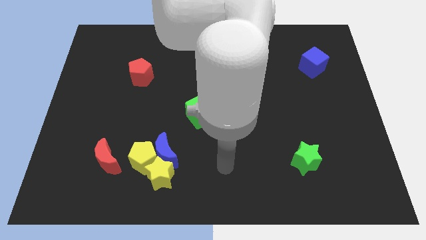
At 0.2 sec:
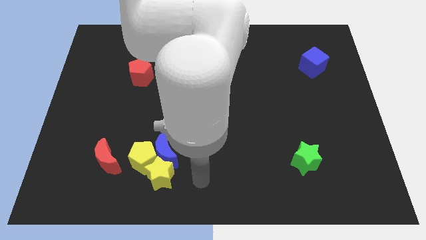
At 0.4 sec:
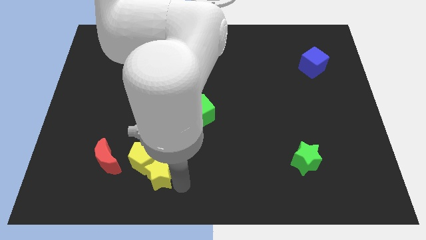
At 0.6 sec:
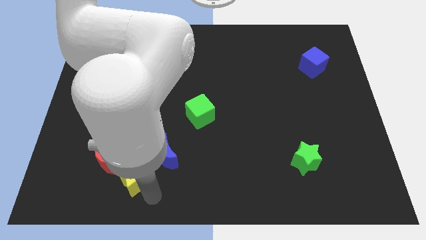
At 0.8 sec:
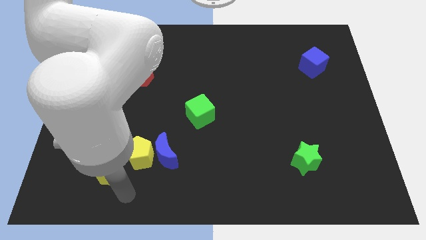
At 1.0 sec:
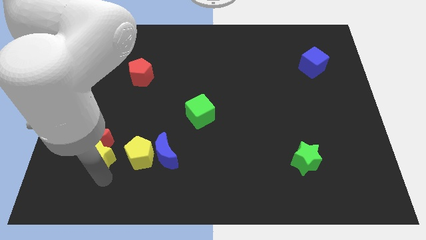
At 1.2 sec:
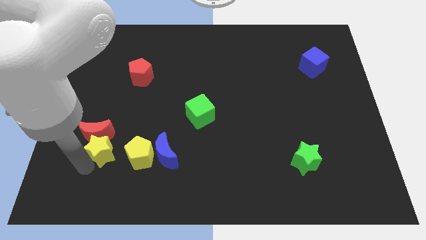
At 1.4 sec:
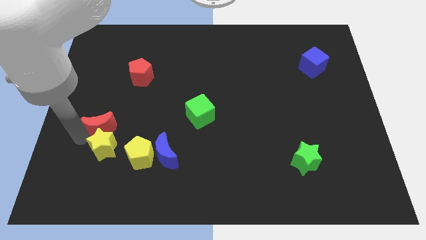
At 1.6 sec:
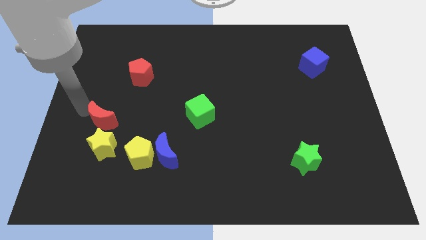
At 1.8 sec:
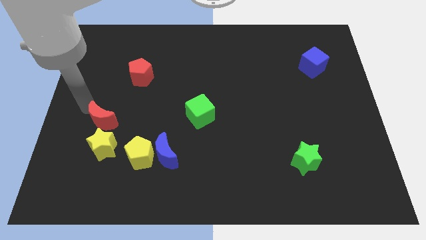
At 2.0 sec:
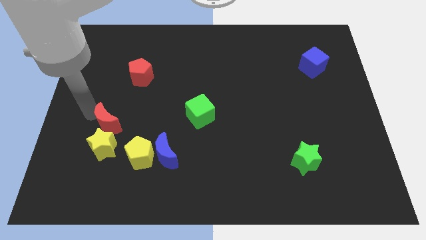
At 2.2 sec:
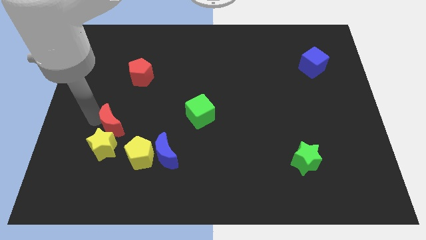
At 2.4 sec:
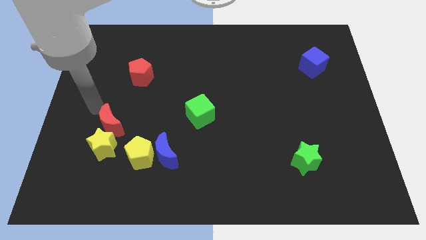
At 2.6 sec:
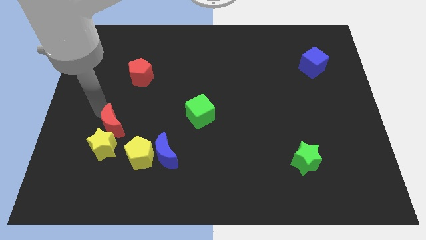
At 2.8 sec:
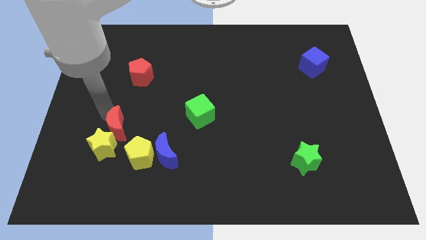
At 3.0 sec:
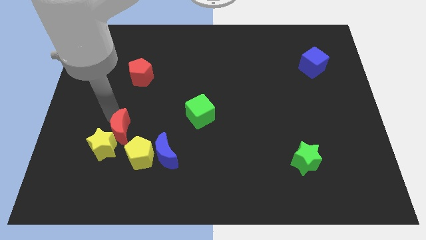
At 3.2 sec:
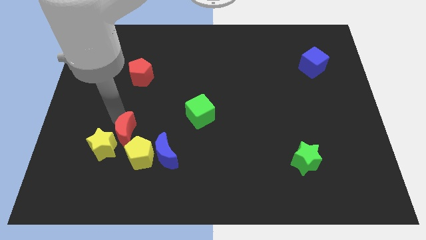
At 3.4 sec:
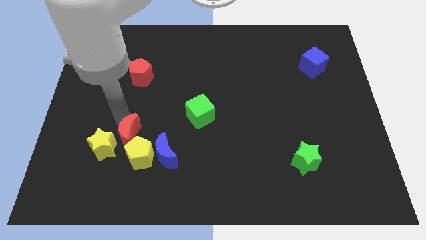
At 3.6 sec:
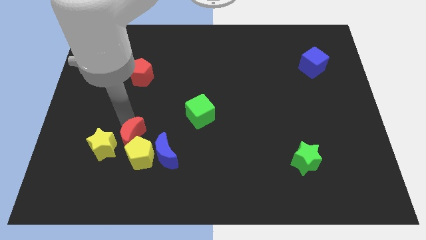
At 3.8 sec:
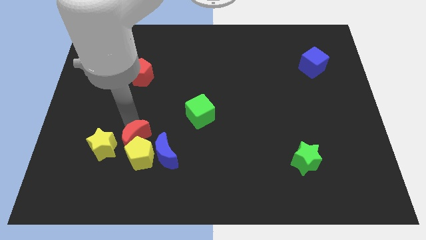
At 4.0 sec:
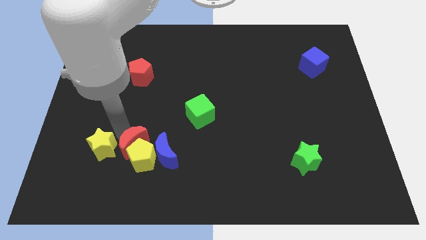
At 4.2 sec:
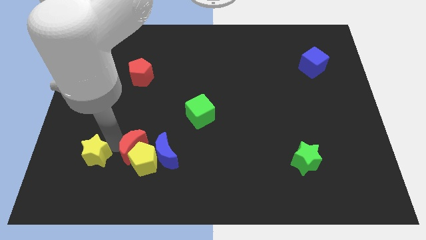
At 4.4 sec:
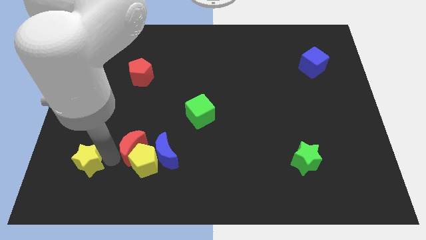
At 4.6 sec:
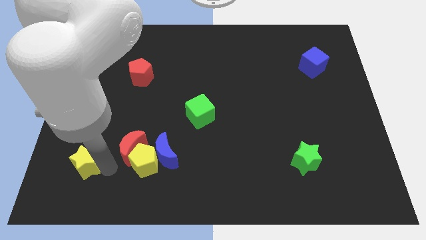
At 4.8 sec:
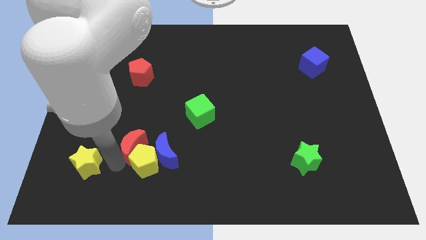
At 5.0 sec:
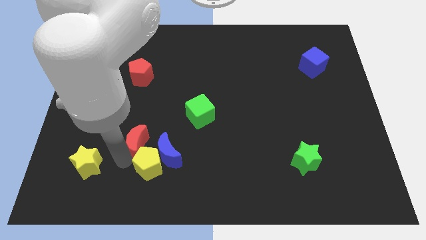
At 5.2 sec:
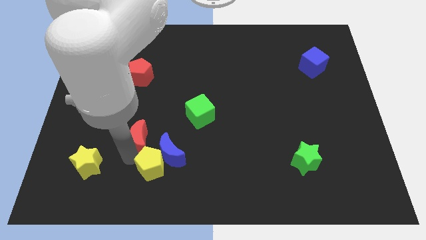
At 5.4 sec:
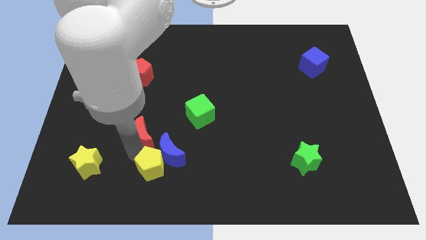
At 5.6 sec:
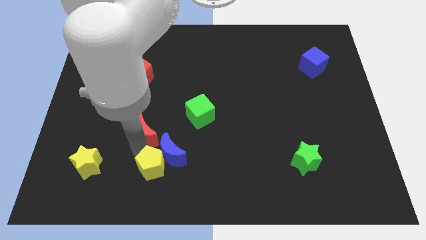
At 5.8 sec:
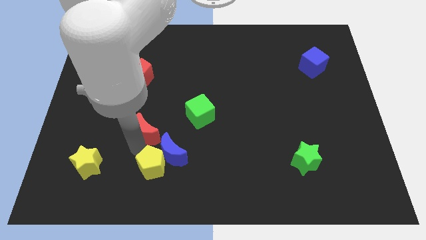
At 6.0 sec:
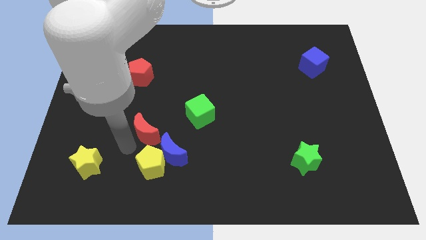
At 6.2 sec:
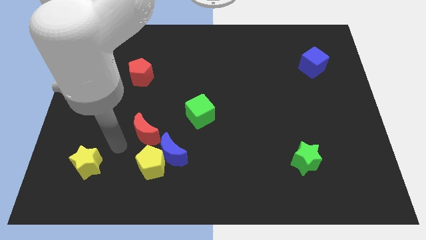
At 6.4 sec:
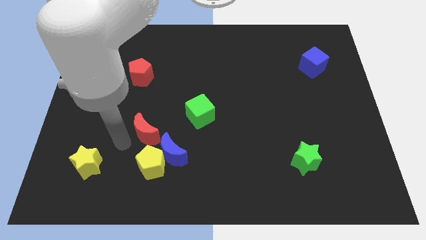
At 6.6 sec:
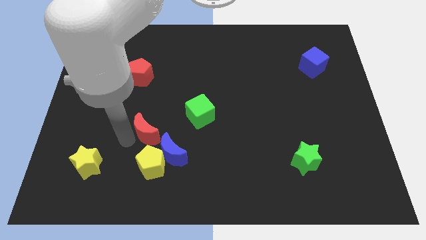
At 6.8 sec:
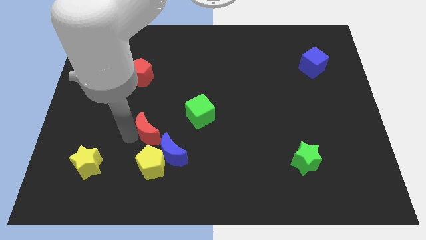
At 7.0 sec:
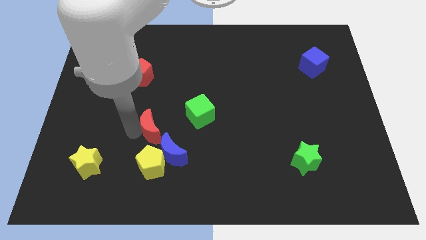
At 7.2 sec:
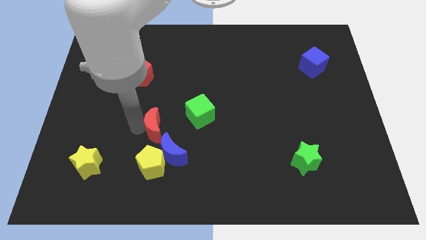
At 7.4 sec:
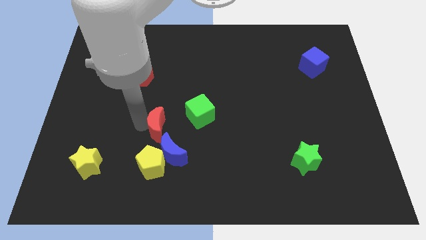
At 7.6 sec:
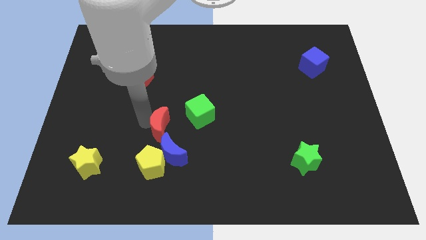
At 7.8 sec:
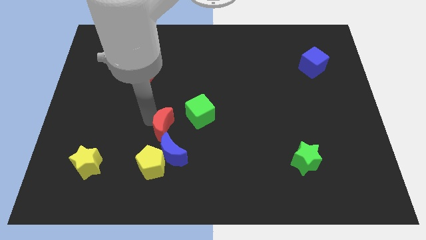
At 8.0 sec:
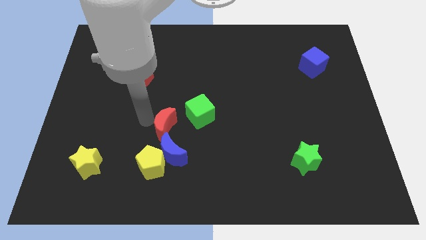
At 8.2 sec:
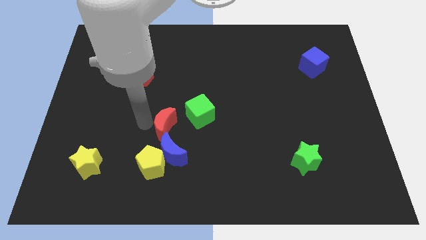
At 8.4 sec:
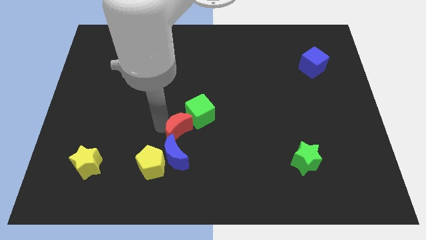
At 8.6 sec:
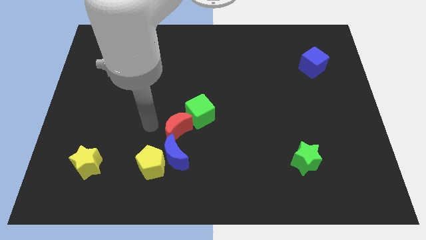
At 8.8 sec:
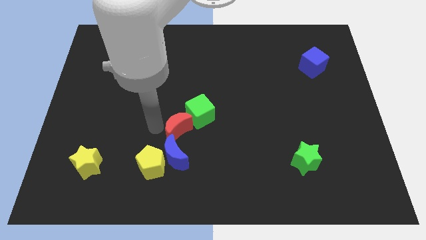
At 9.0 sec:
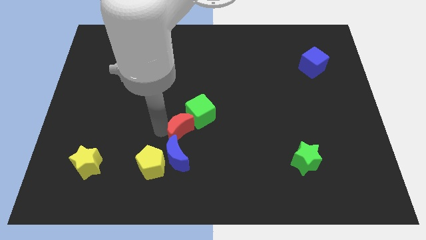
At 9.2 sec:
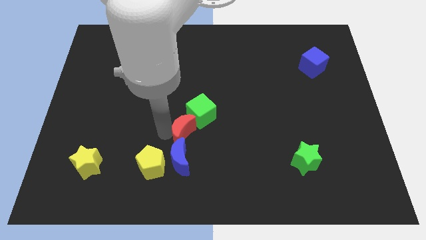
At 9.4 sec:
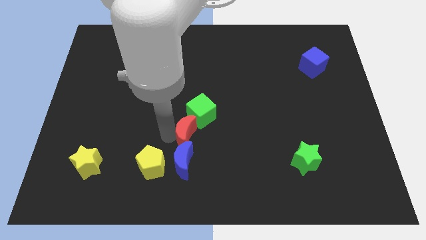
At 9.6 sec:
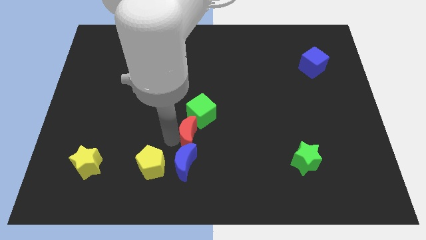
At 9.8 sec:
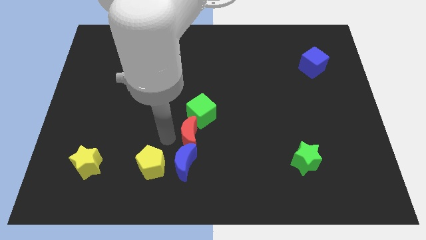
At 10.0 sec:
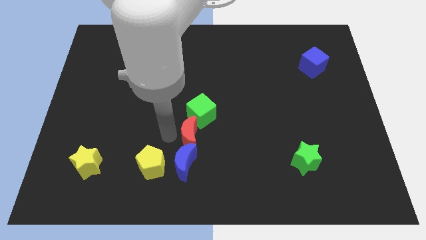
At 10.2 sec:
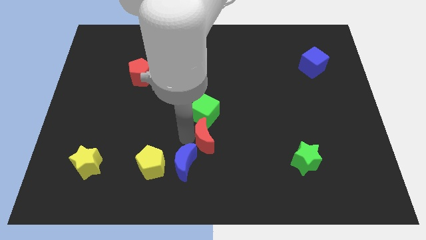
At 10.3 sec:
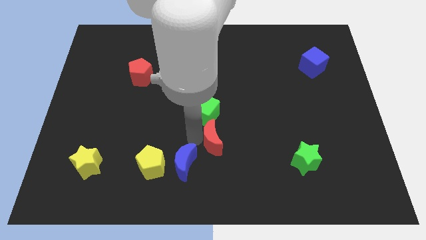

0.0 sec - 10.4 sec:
push the red moon right

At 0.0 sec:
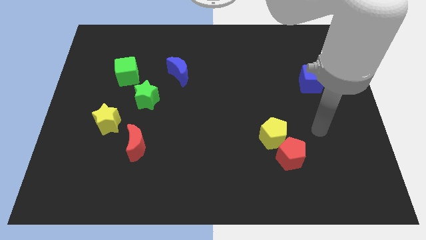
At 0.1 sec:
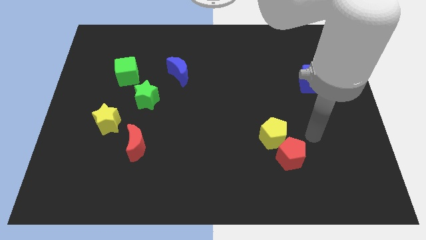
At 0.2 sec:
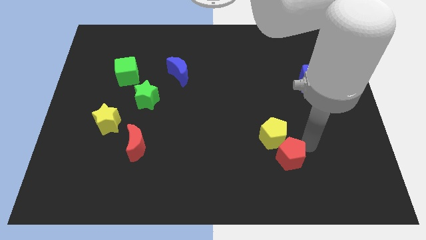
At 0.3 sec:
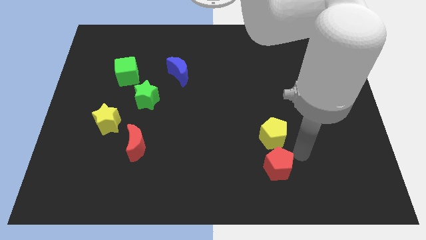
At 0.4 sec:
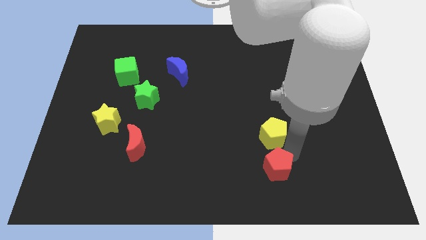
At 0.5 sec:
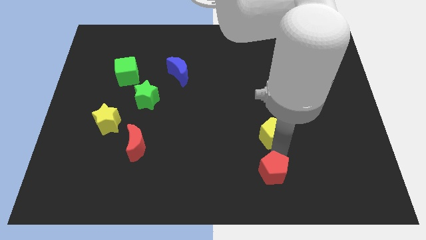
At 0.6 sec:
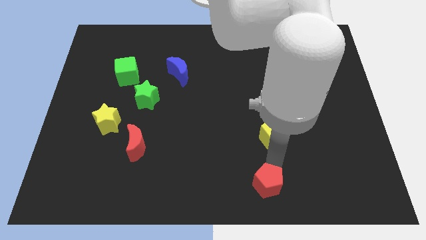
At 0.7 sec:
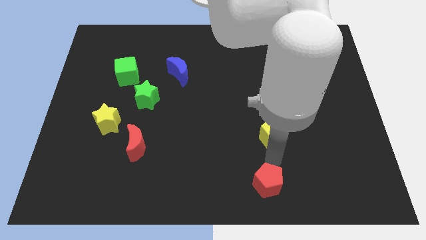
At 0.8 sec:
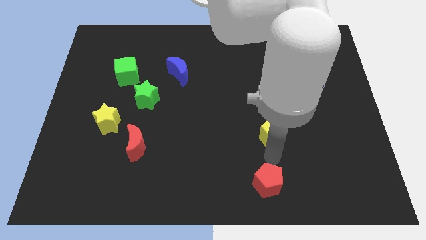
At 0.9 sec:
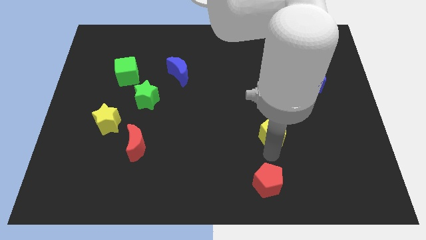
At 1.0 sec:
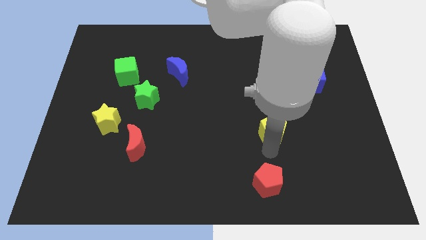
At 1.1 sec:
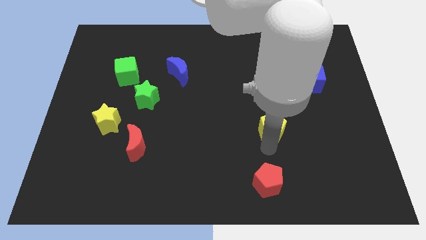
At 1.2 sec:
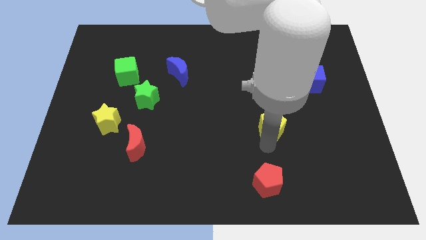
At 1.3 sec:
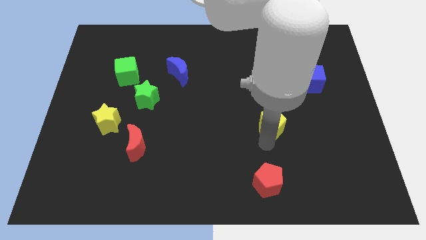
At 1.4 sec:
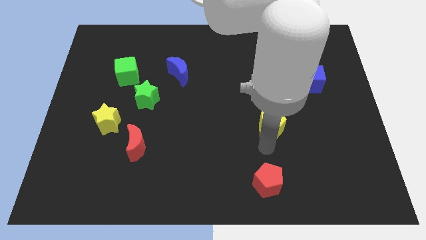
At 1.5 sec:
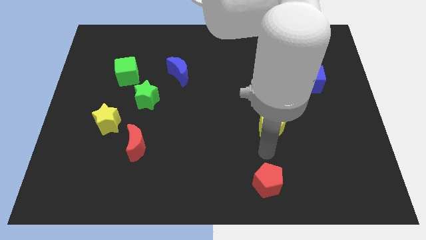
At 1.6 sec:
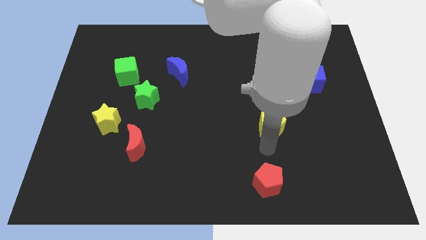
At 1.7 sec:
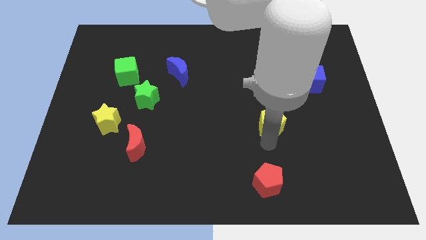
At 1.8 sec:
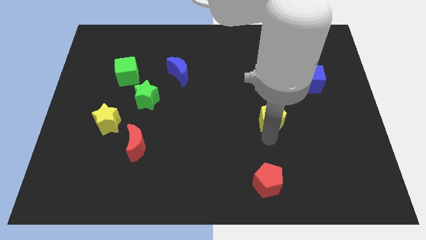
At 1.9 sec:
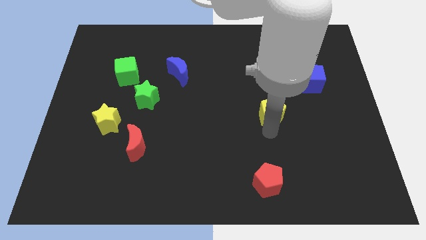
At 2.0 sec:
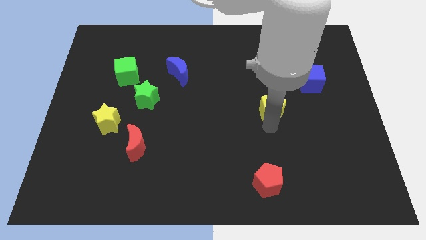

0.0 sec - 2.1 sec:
move the yellow pentagon upwards slightly

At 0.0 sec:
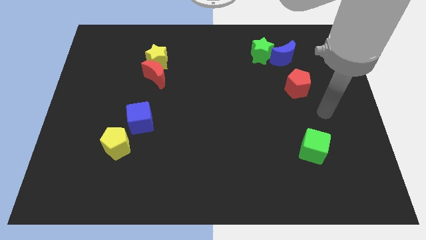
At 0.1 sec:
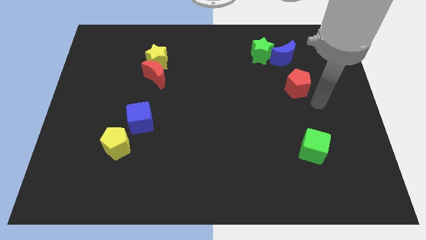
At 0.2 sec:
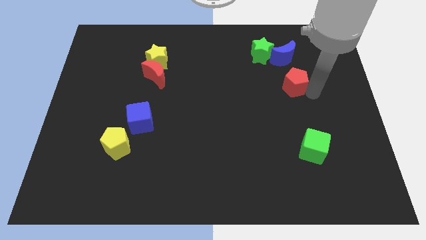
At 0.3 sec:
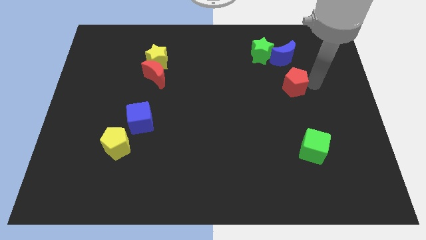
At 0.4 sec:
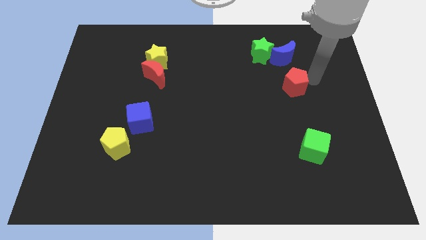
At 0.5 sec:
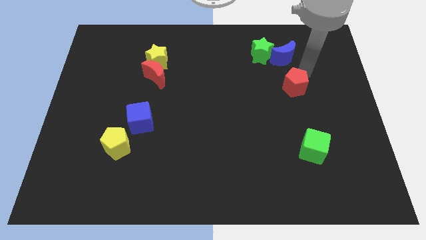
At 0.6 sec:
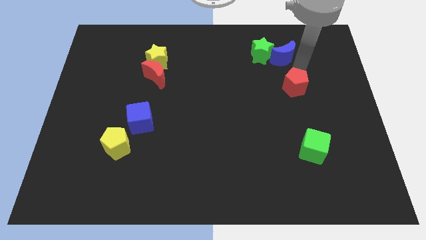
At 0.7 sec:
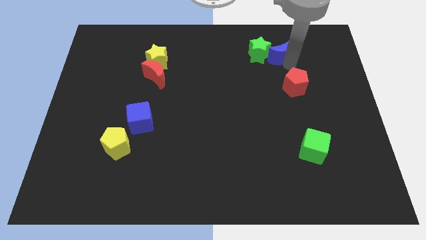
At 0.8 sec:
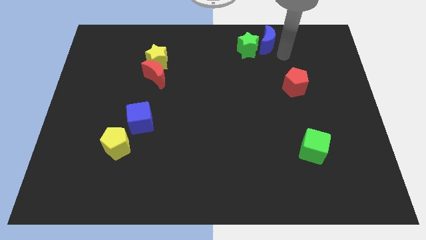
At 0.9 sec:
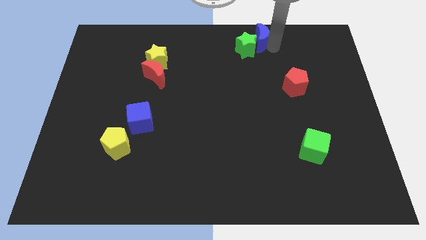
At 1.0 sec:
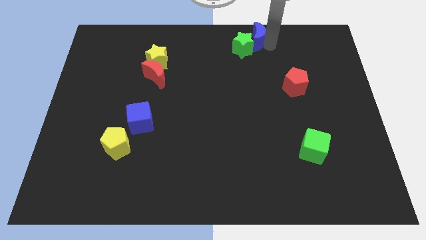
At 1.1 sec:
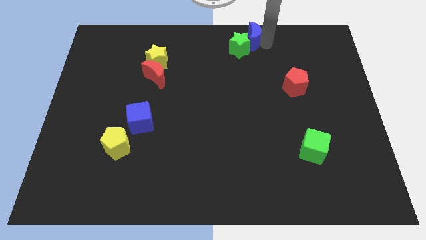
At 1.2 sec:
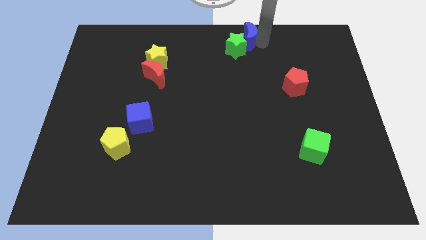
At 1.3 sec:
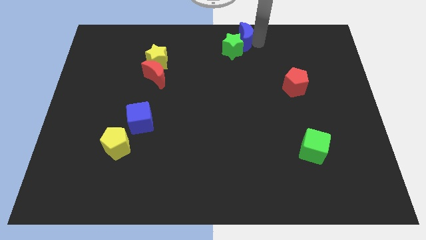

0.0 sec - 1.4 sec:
move the green star a little left
